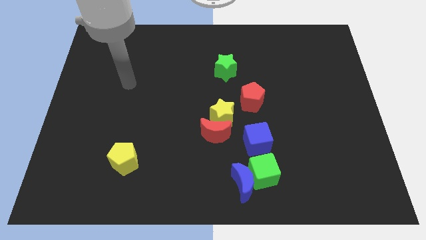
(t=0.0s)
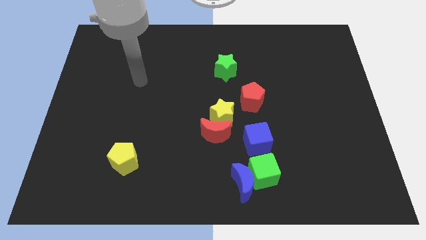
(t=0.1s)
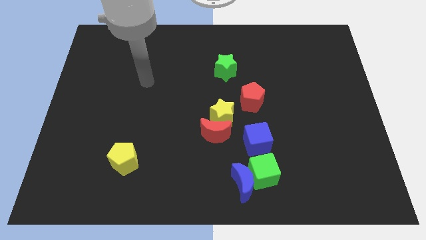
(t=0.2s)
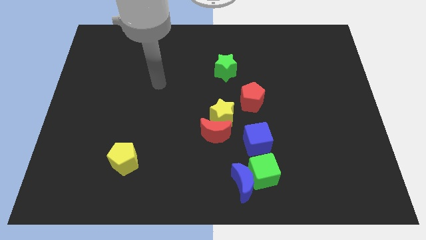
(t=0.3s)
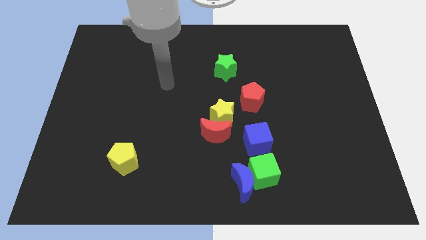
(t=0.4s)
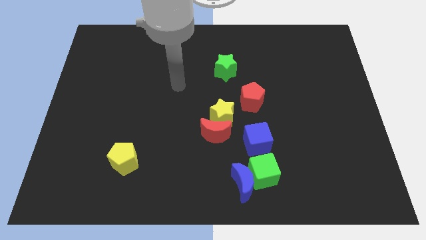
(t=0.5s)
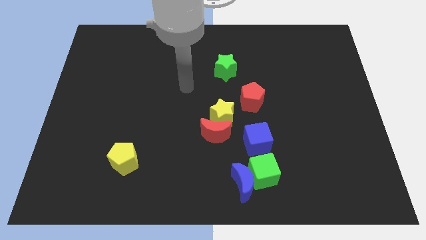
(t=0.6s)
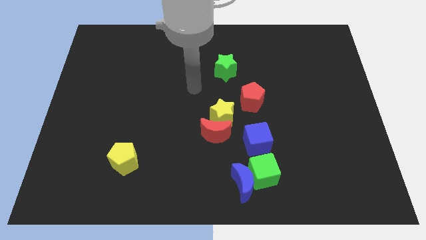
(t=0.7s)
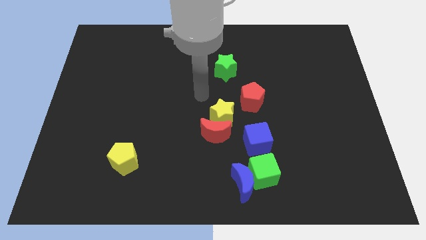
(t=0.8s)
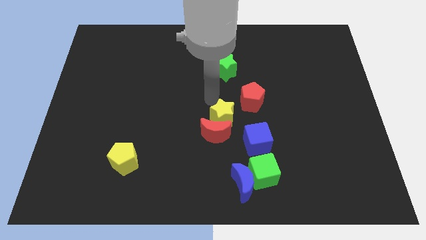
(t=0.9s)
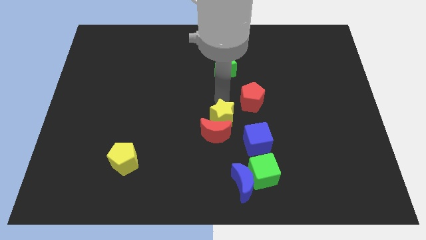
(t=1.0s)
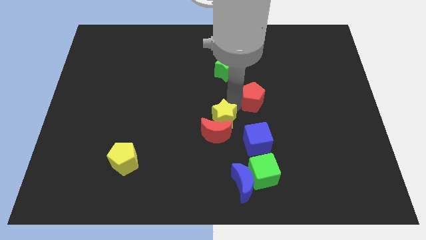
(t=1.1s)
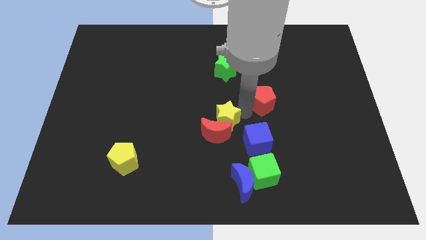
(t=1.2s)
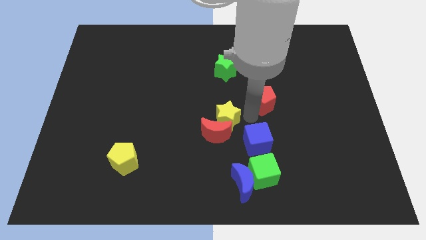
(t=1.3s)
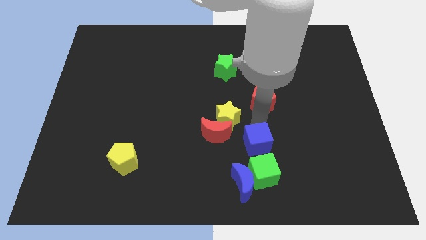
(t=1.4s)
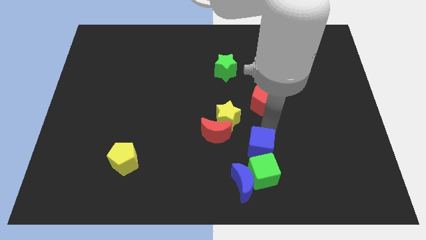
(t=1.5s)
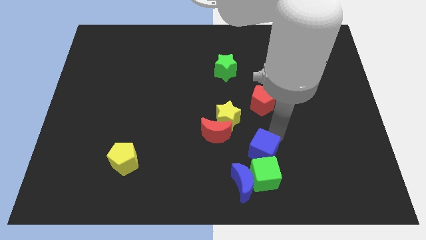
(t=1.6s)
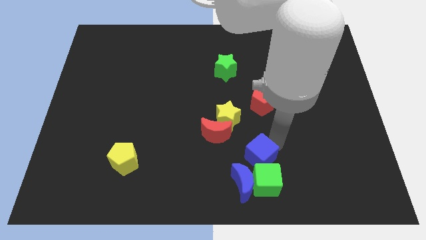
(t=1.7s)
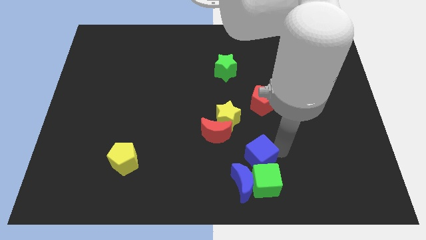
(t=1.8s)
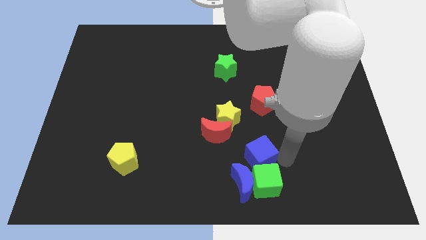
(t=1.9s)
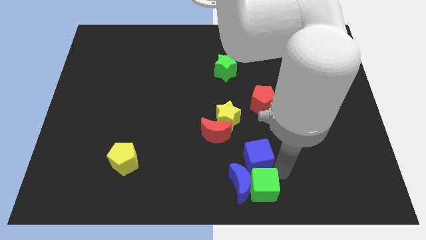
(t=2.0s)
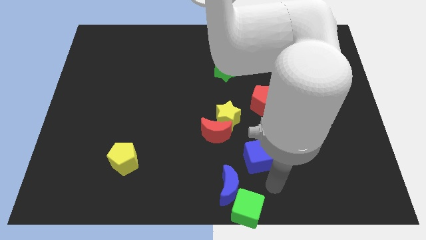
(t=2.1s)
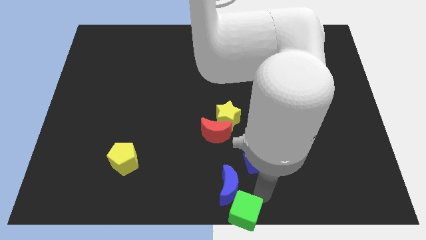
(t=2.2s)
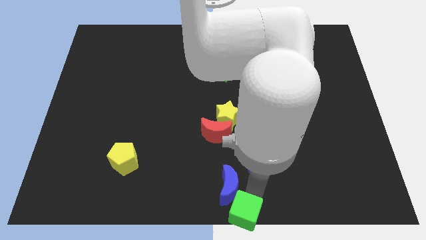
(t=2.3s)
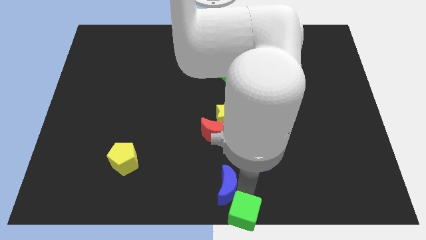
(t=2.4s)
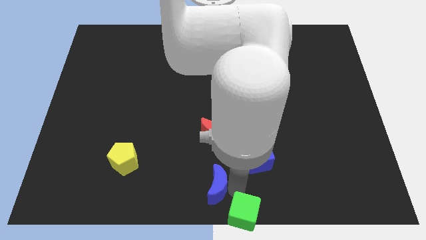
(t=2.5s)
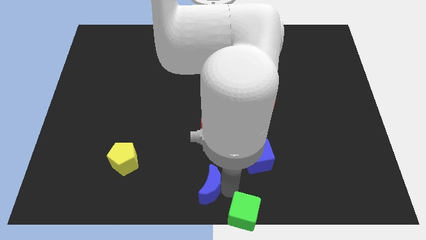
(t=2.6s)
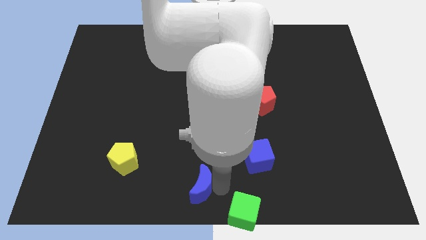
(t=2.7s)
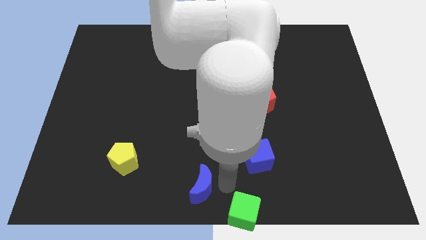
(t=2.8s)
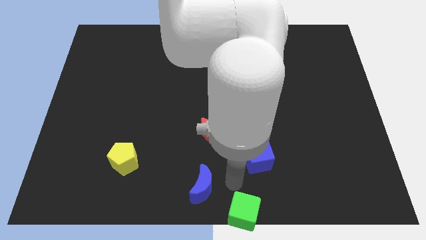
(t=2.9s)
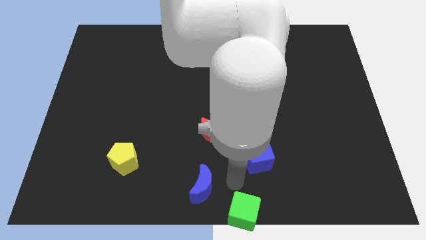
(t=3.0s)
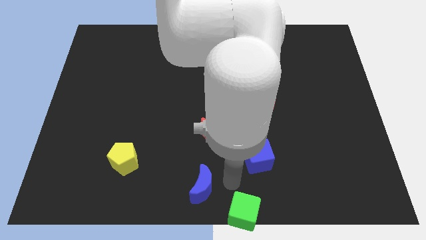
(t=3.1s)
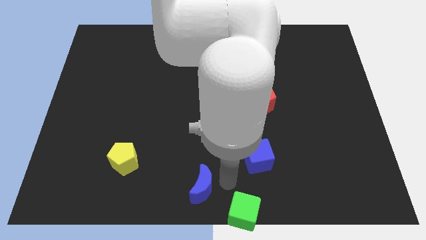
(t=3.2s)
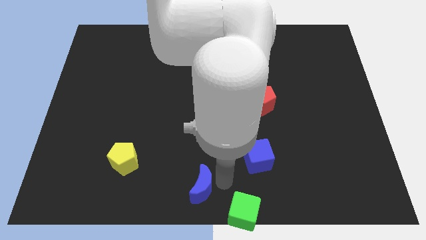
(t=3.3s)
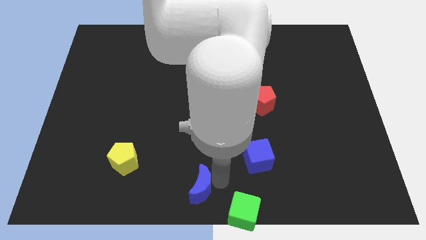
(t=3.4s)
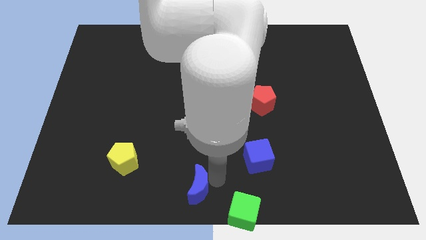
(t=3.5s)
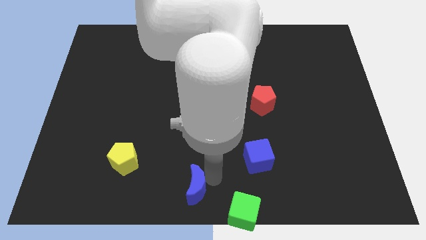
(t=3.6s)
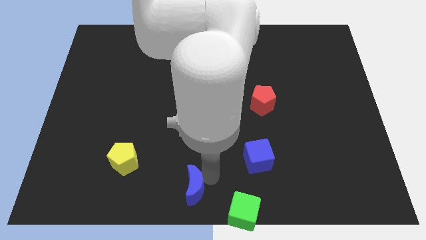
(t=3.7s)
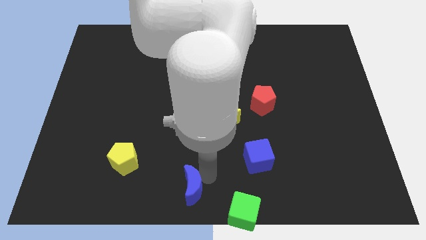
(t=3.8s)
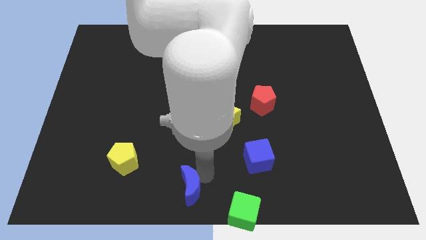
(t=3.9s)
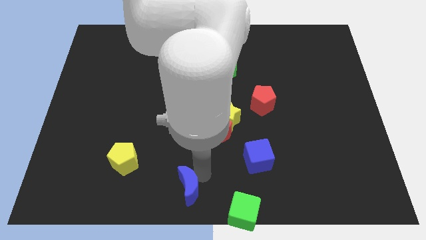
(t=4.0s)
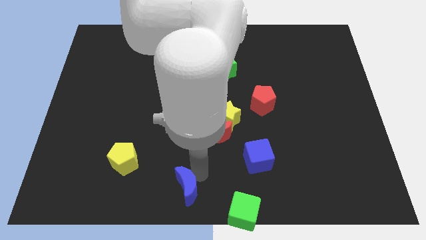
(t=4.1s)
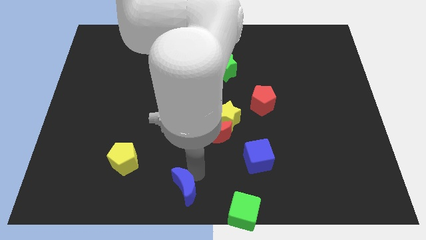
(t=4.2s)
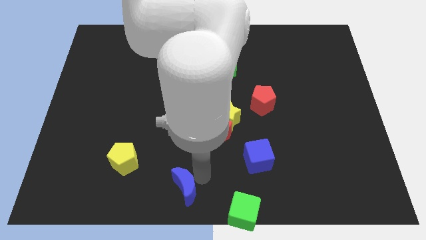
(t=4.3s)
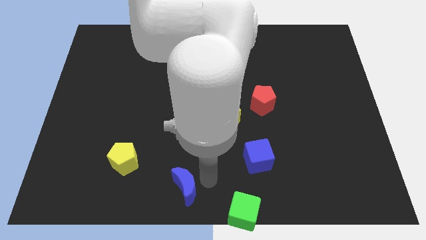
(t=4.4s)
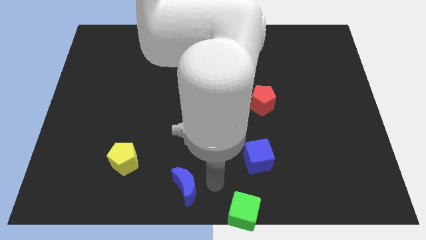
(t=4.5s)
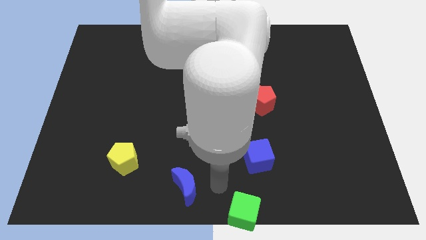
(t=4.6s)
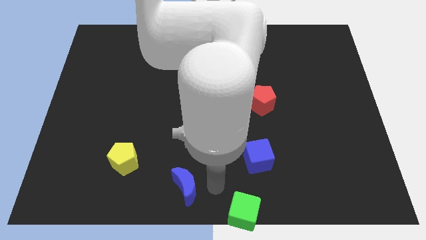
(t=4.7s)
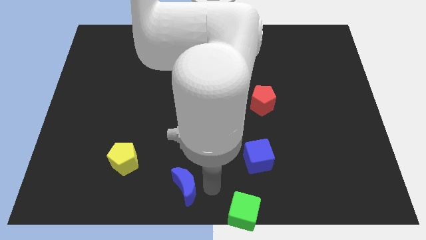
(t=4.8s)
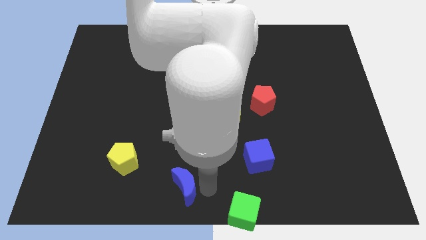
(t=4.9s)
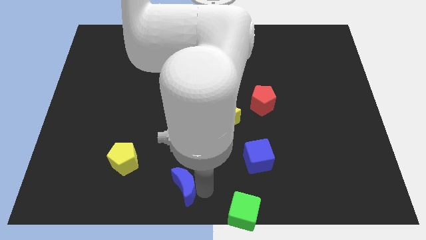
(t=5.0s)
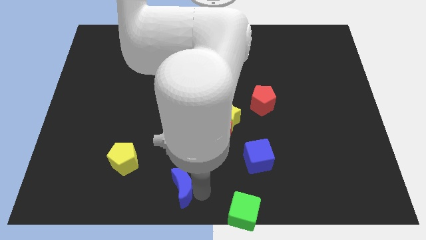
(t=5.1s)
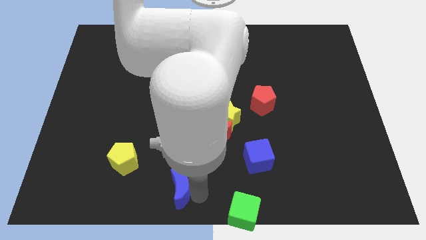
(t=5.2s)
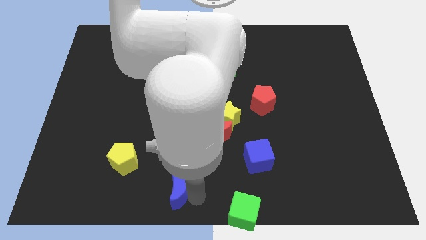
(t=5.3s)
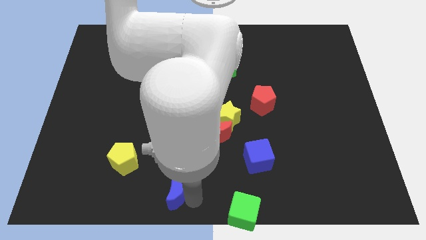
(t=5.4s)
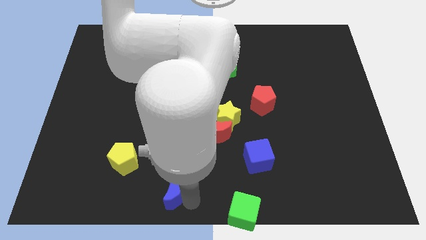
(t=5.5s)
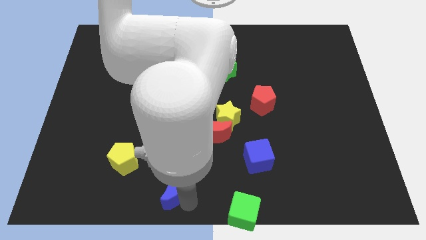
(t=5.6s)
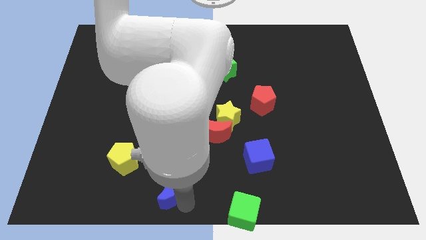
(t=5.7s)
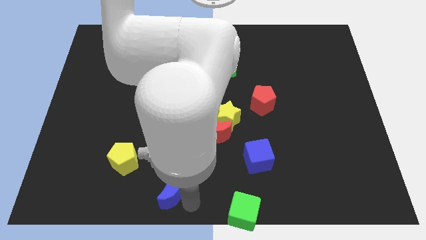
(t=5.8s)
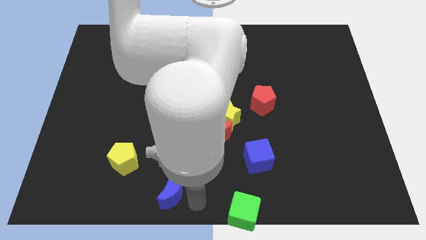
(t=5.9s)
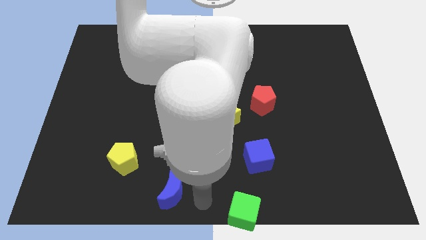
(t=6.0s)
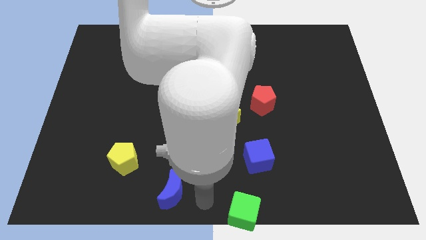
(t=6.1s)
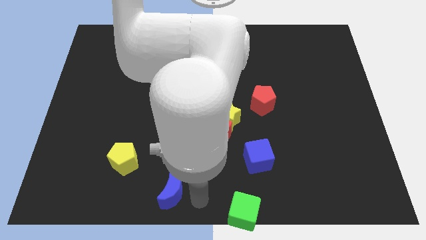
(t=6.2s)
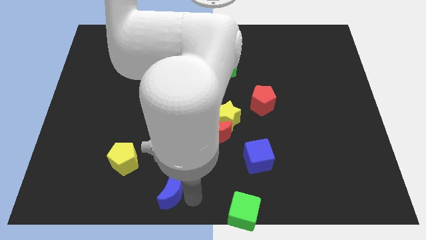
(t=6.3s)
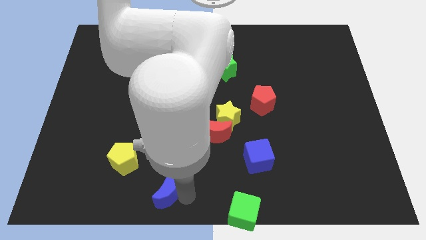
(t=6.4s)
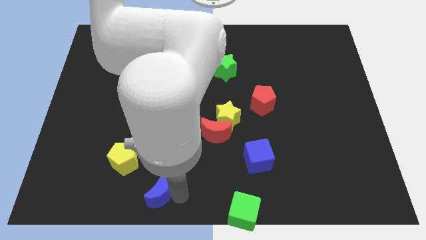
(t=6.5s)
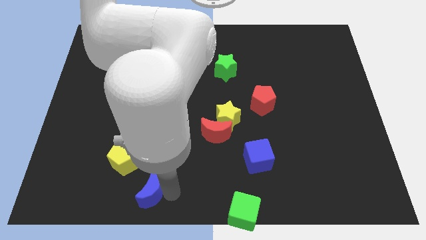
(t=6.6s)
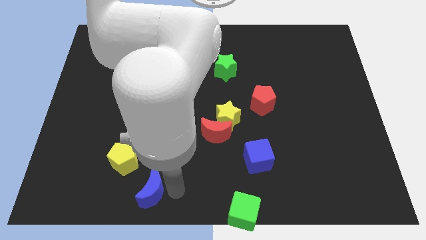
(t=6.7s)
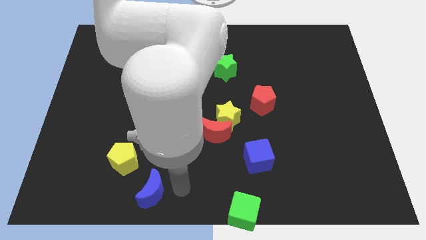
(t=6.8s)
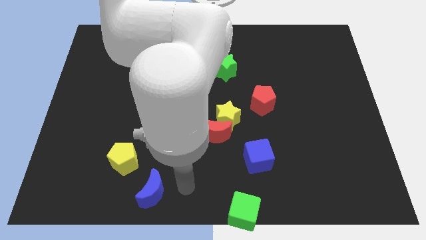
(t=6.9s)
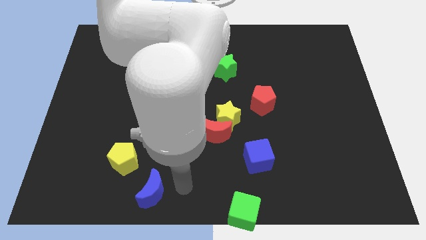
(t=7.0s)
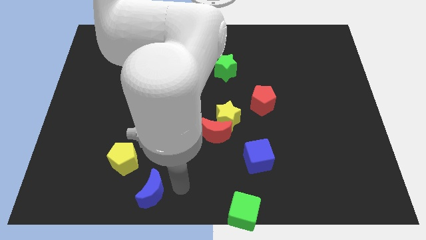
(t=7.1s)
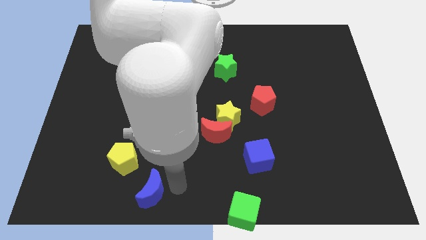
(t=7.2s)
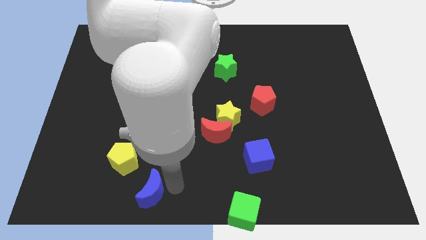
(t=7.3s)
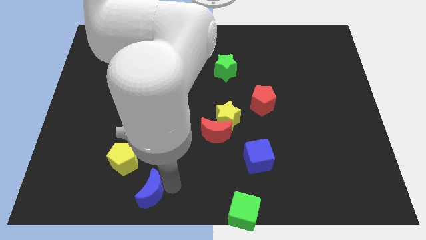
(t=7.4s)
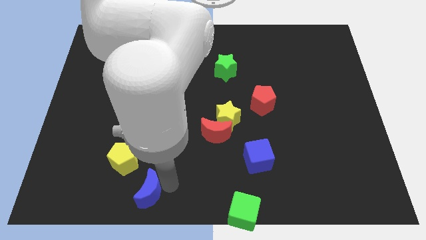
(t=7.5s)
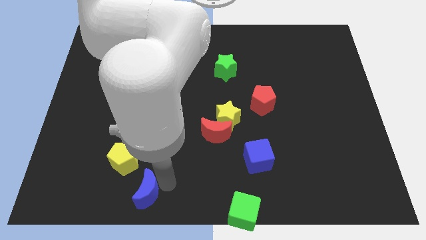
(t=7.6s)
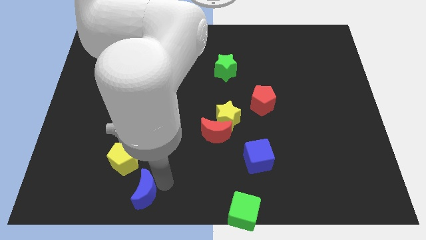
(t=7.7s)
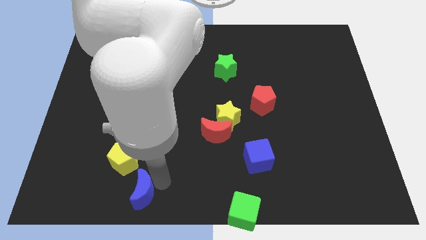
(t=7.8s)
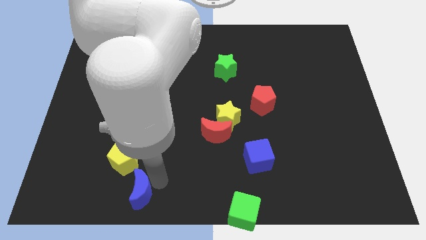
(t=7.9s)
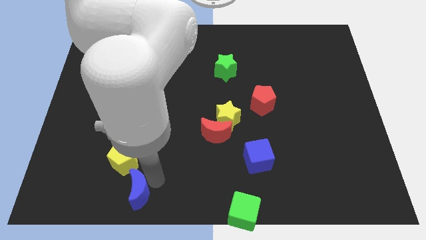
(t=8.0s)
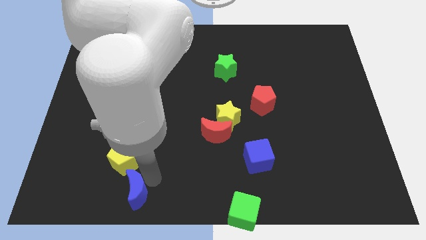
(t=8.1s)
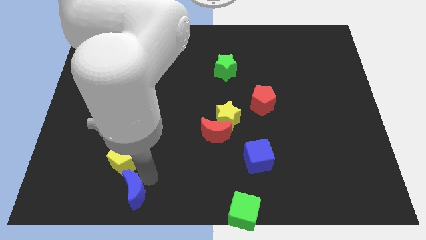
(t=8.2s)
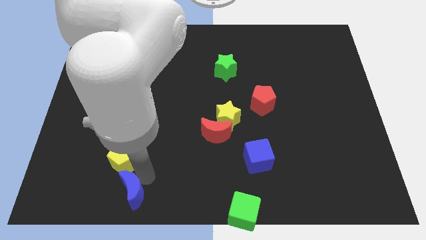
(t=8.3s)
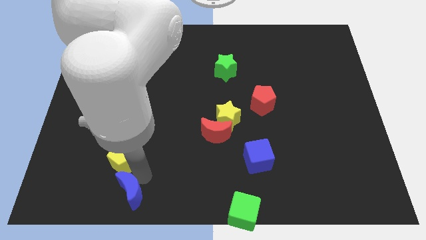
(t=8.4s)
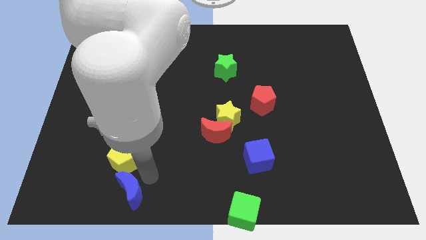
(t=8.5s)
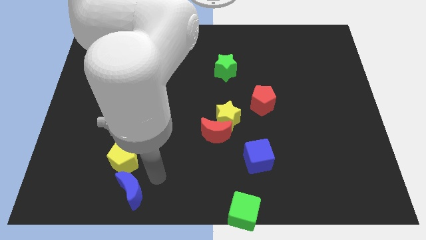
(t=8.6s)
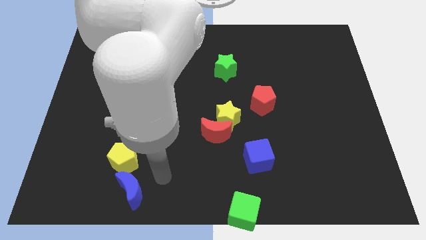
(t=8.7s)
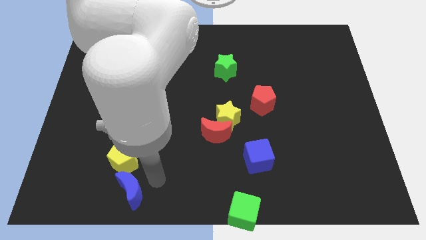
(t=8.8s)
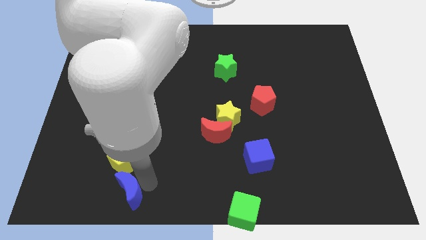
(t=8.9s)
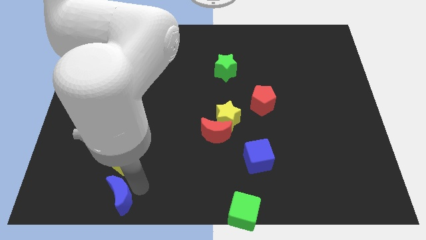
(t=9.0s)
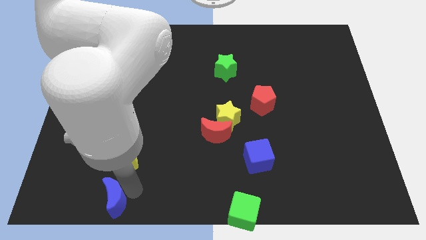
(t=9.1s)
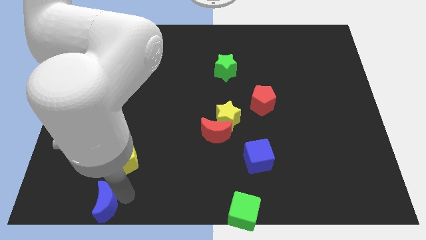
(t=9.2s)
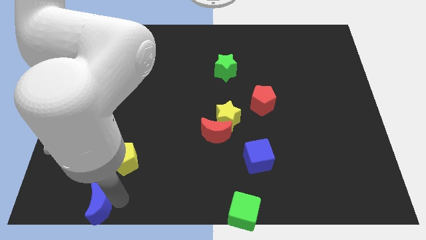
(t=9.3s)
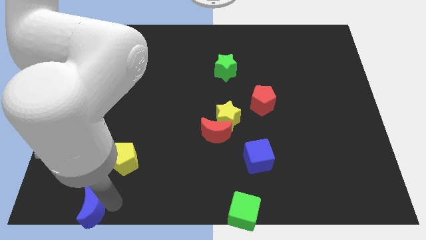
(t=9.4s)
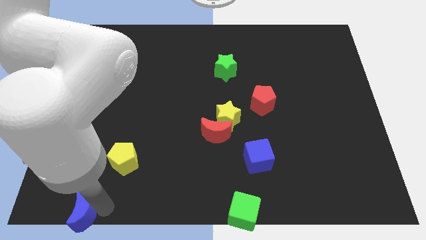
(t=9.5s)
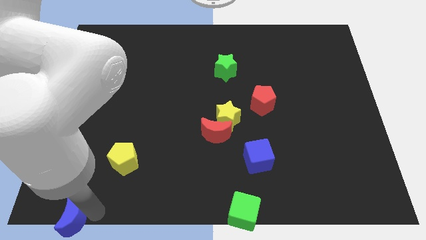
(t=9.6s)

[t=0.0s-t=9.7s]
slide the blue moon to the bottom left of the board
